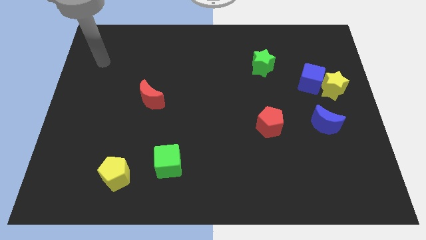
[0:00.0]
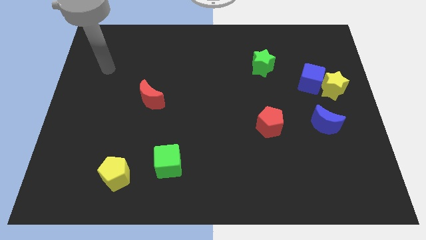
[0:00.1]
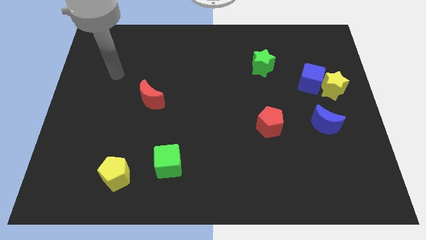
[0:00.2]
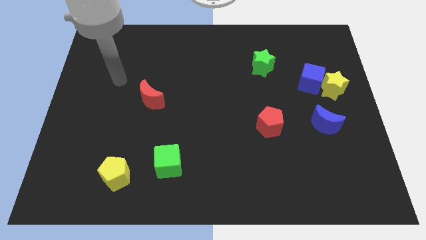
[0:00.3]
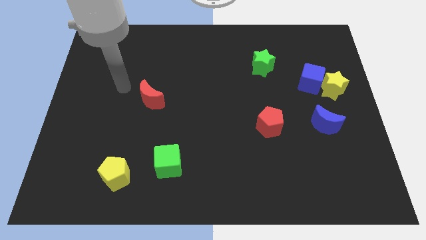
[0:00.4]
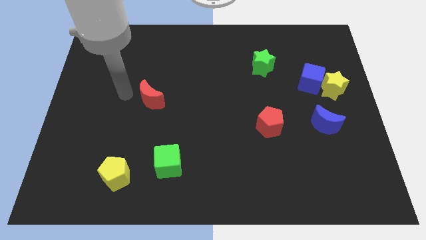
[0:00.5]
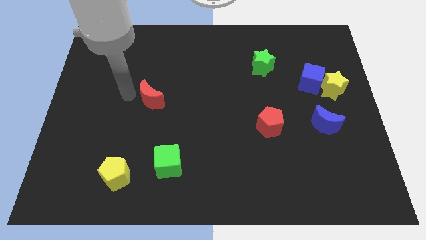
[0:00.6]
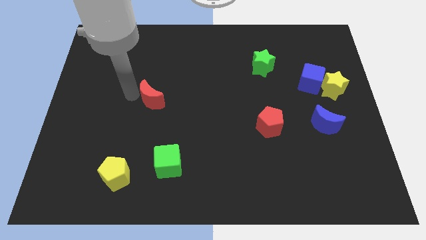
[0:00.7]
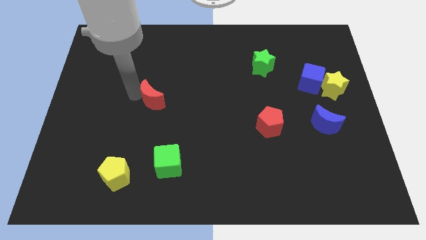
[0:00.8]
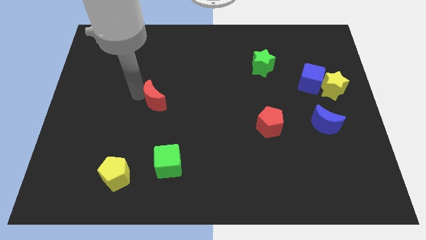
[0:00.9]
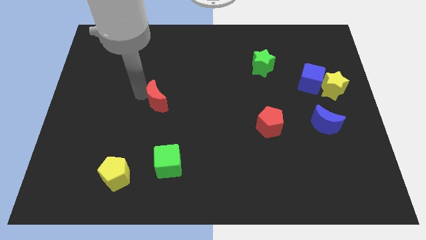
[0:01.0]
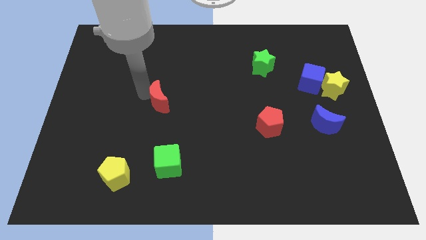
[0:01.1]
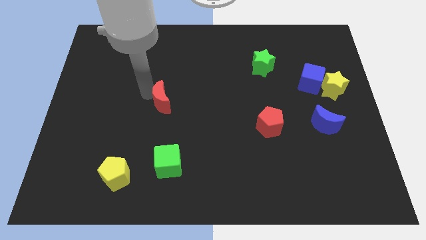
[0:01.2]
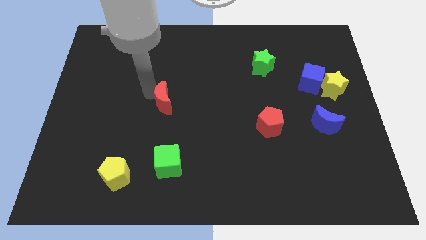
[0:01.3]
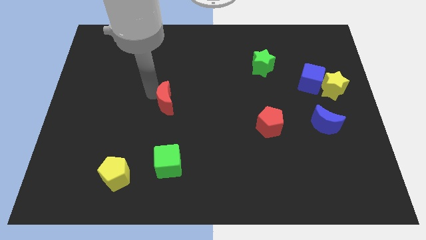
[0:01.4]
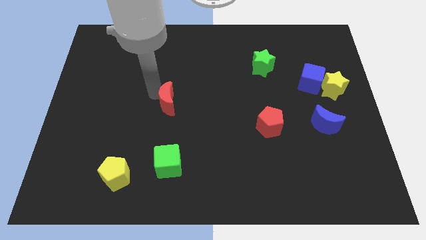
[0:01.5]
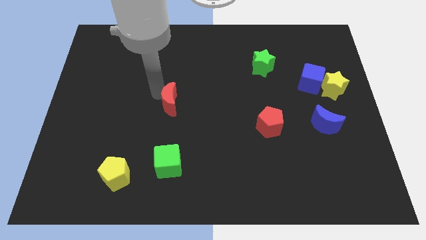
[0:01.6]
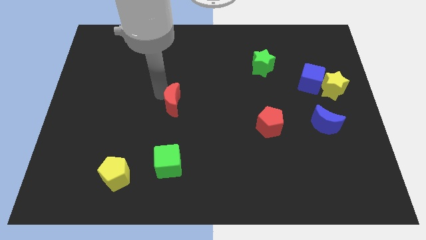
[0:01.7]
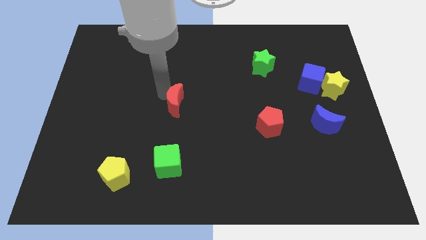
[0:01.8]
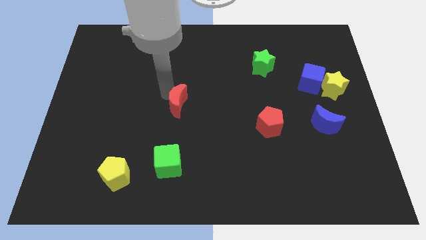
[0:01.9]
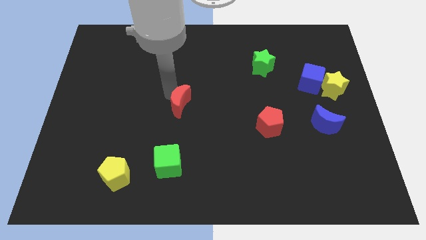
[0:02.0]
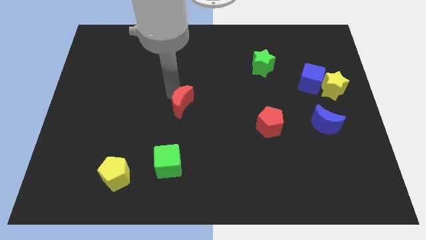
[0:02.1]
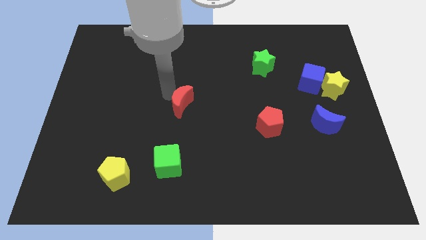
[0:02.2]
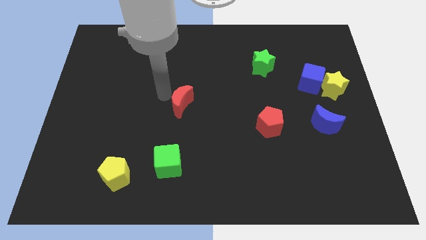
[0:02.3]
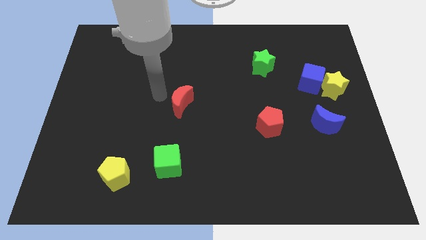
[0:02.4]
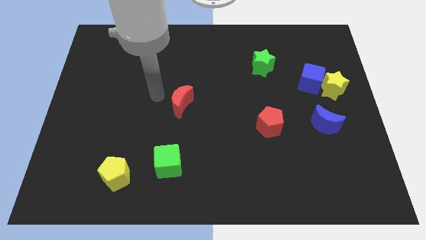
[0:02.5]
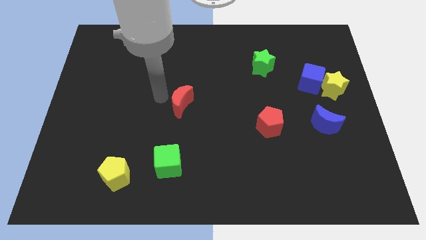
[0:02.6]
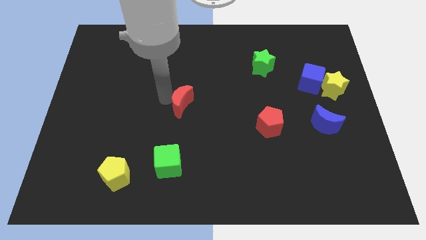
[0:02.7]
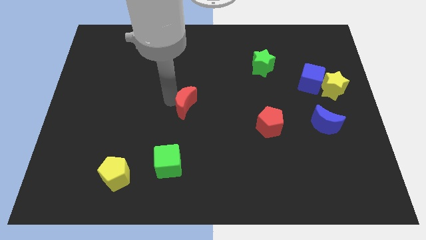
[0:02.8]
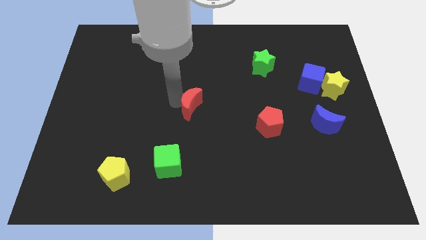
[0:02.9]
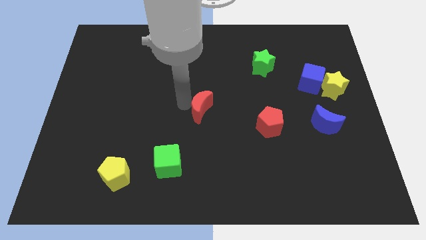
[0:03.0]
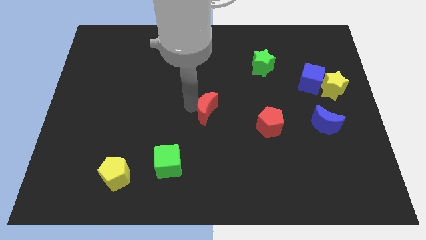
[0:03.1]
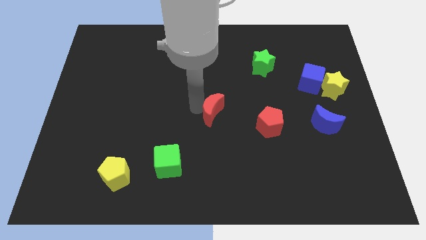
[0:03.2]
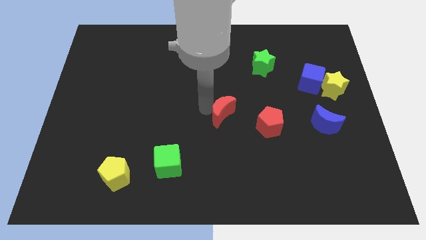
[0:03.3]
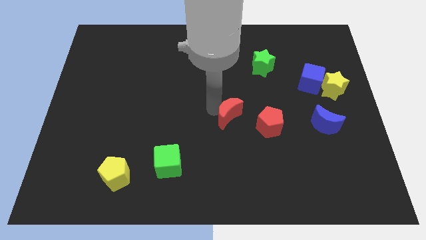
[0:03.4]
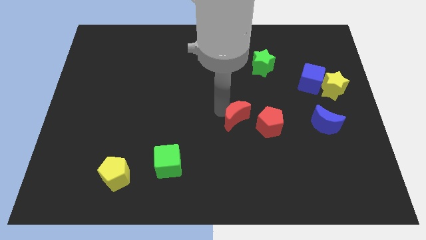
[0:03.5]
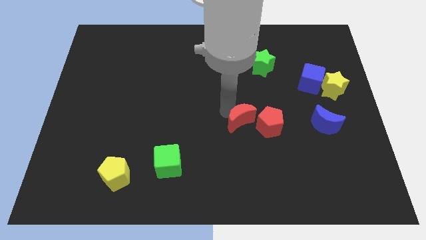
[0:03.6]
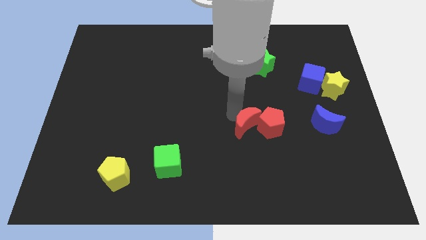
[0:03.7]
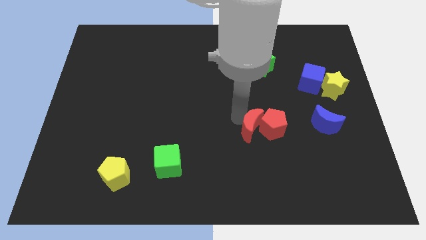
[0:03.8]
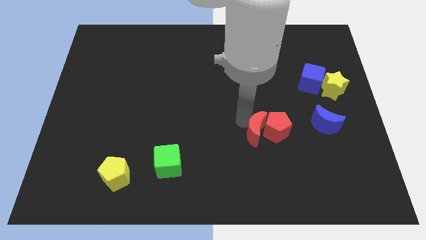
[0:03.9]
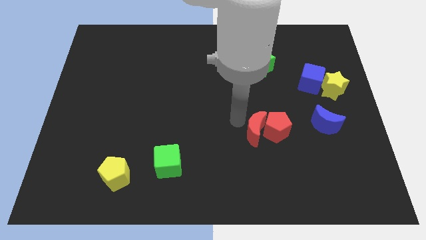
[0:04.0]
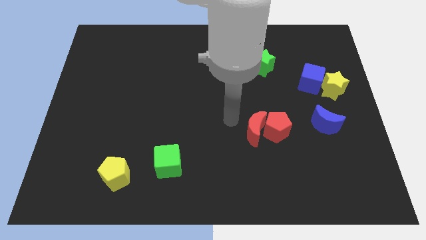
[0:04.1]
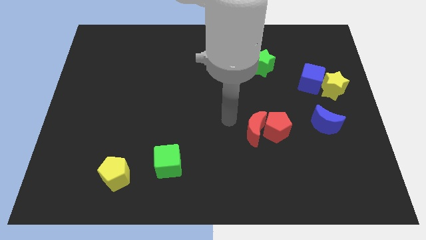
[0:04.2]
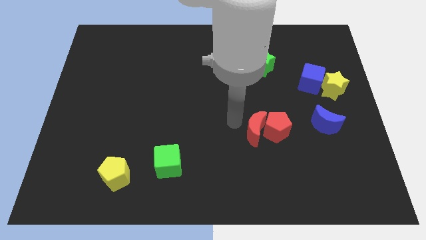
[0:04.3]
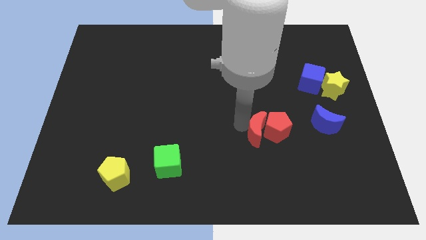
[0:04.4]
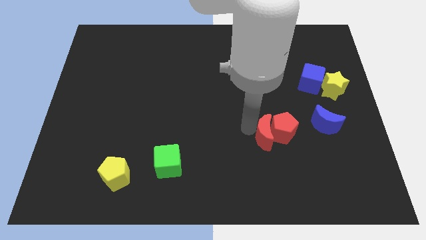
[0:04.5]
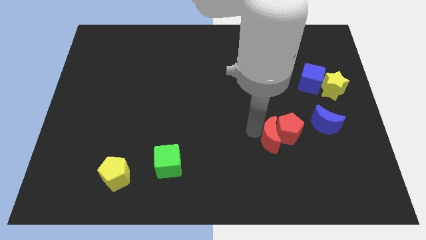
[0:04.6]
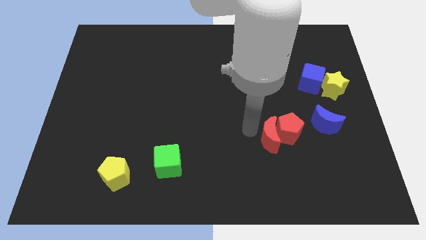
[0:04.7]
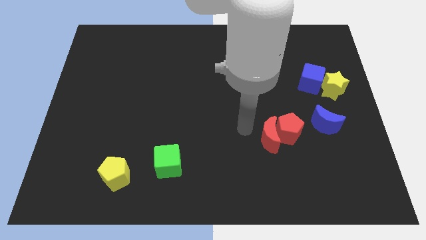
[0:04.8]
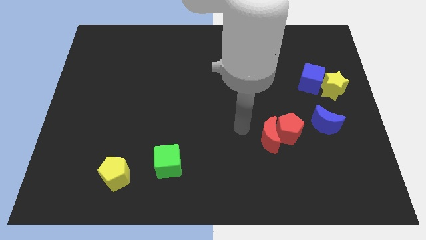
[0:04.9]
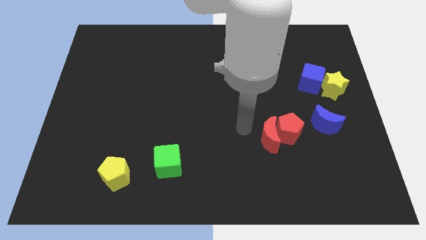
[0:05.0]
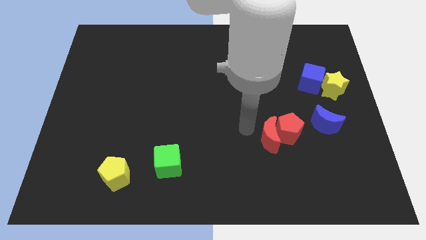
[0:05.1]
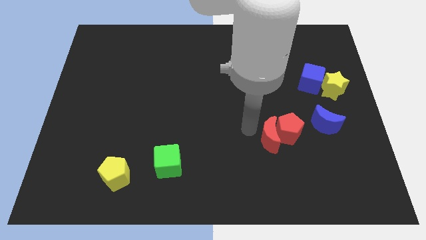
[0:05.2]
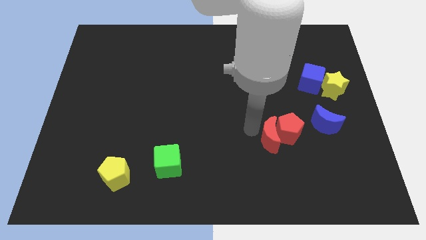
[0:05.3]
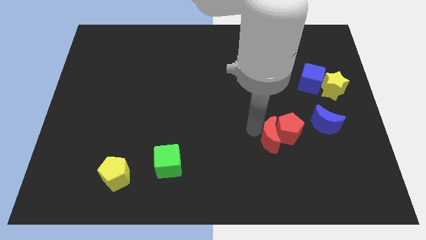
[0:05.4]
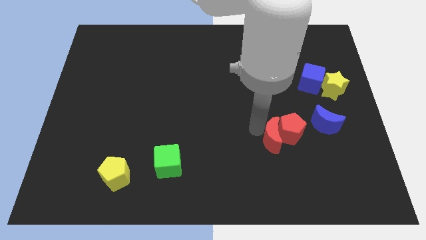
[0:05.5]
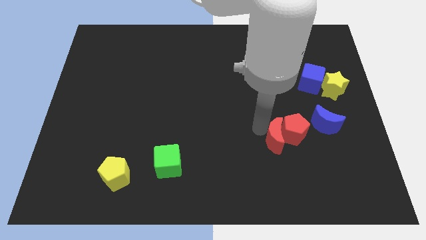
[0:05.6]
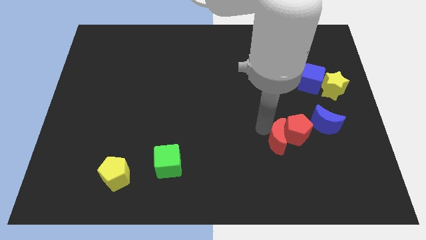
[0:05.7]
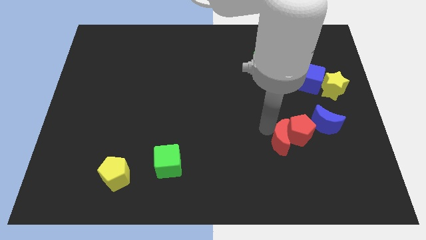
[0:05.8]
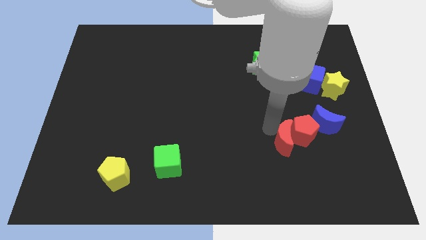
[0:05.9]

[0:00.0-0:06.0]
move the red moon to the bottom left of the blue moon

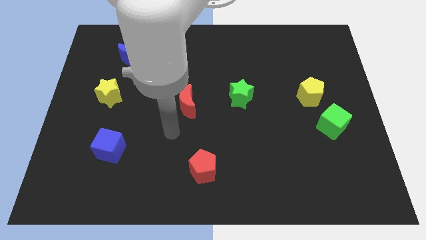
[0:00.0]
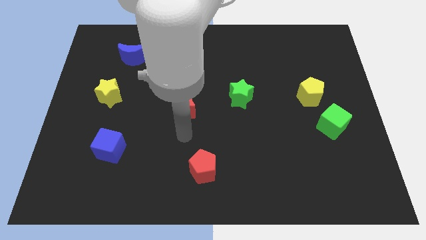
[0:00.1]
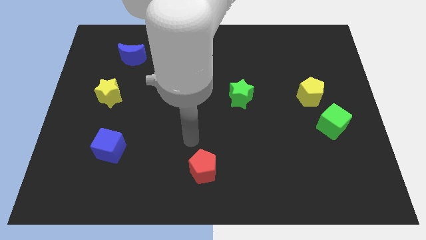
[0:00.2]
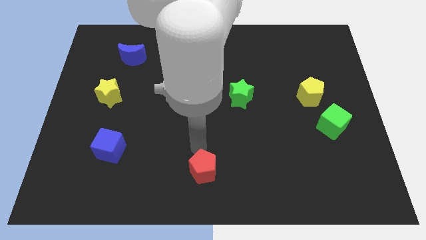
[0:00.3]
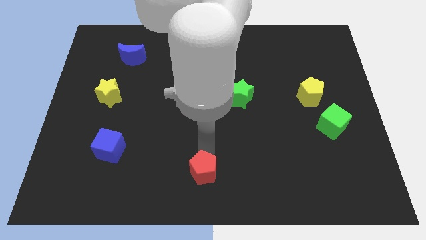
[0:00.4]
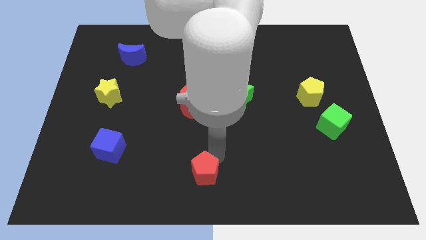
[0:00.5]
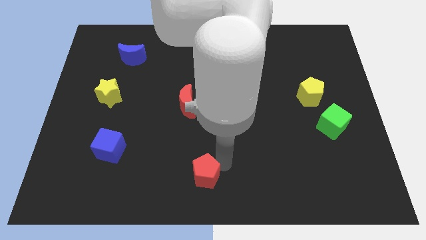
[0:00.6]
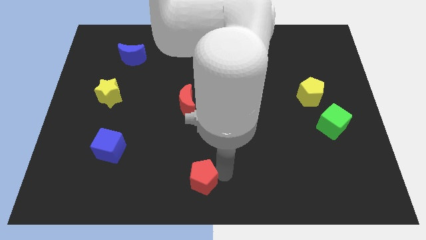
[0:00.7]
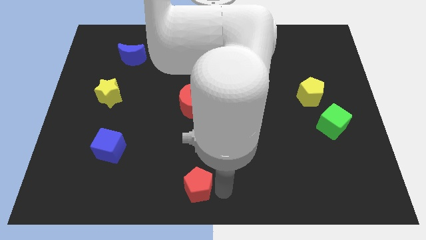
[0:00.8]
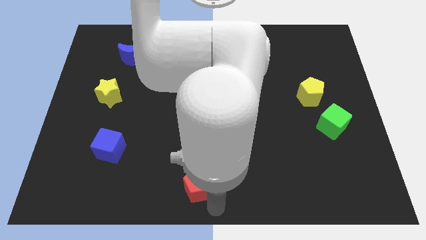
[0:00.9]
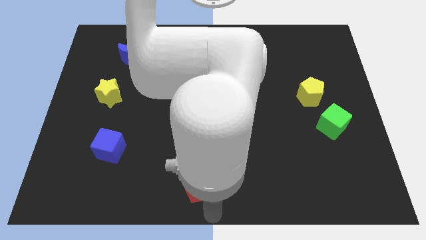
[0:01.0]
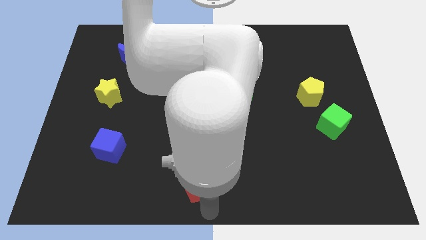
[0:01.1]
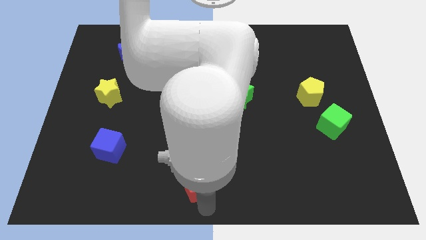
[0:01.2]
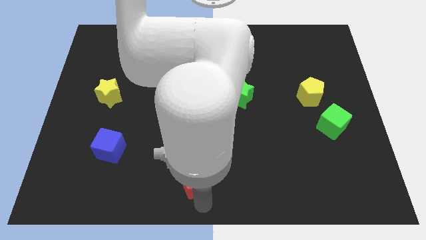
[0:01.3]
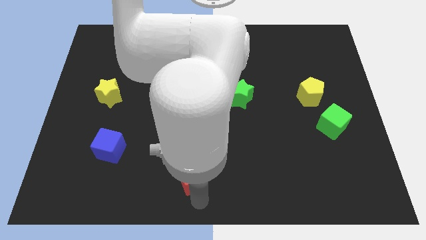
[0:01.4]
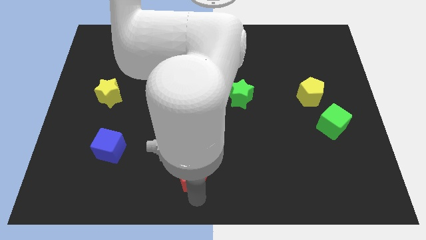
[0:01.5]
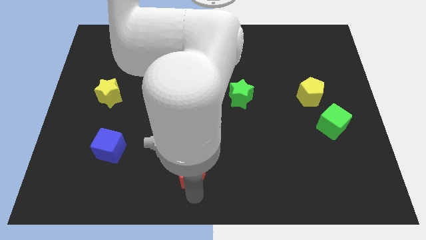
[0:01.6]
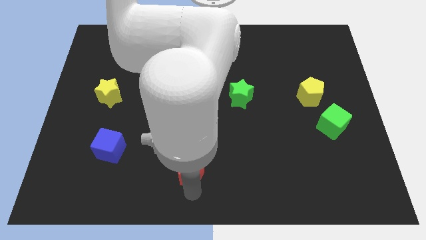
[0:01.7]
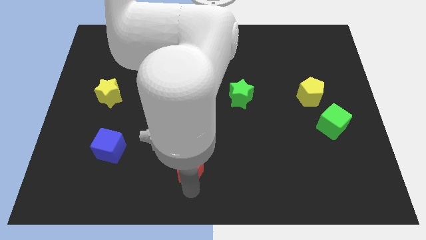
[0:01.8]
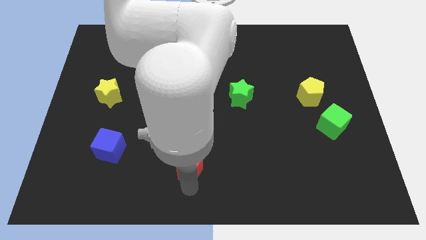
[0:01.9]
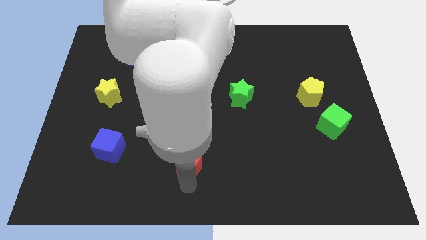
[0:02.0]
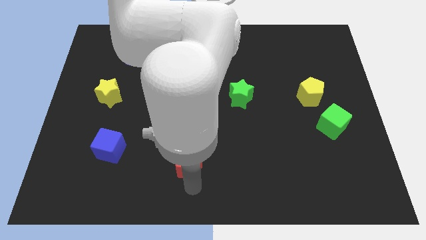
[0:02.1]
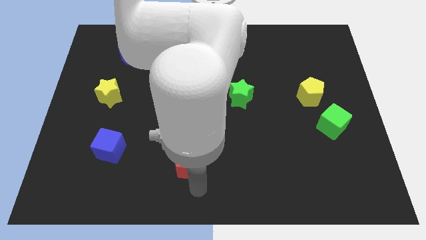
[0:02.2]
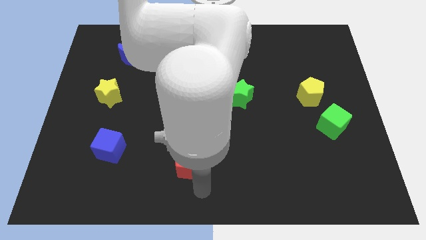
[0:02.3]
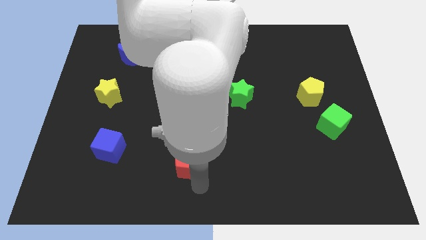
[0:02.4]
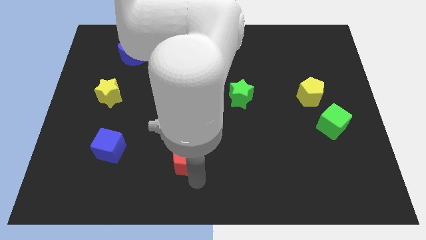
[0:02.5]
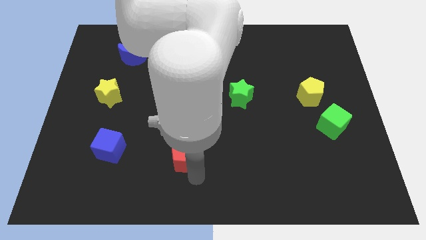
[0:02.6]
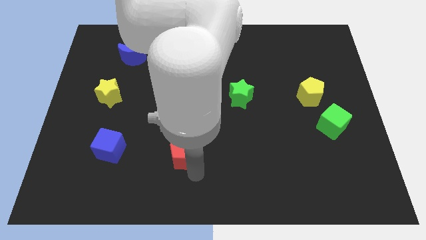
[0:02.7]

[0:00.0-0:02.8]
push the red pentagon to the right side of the blue cube
